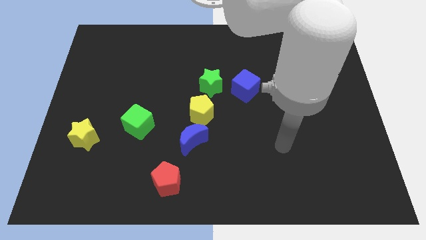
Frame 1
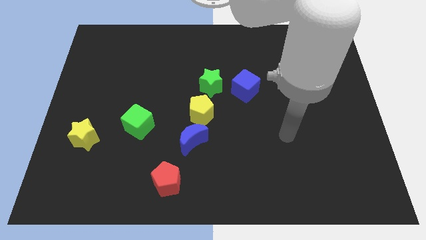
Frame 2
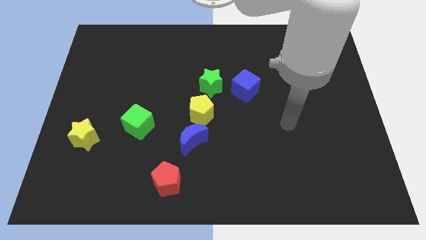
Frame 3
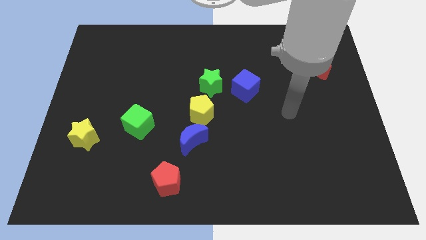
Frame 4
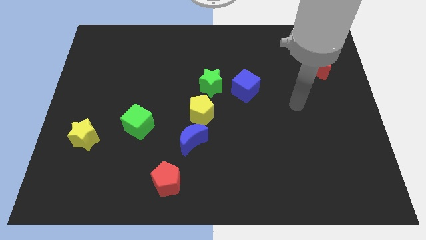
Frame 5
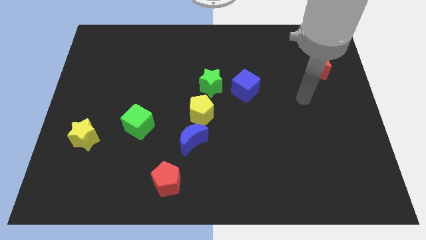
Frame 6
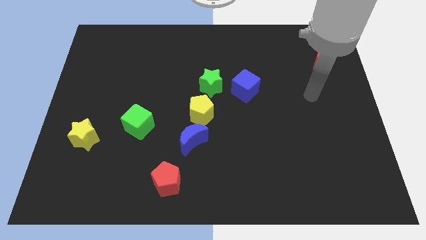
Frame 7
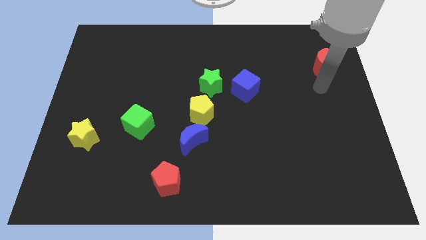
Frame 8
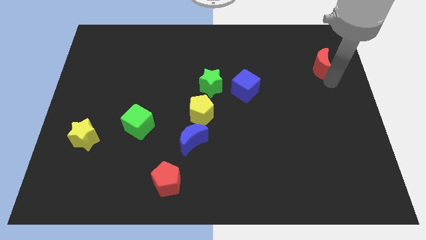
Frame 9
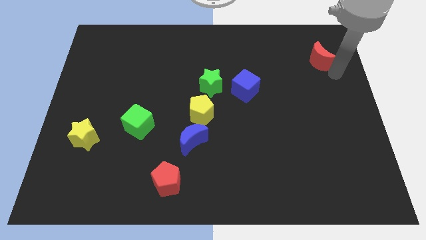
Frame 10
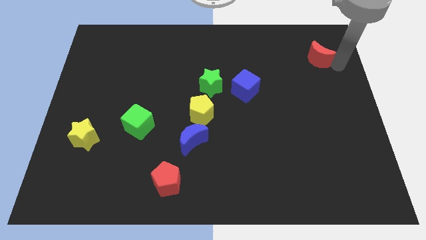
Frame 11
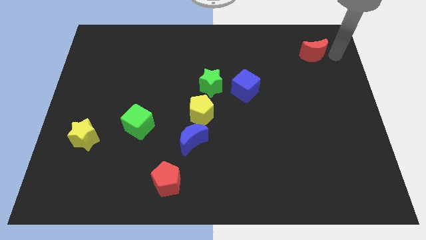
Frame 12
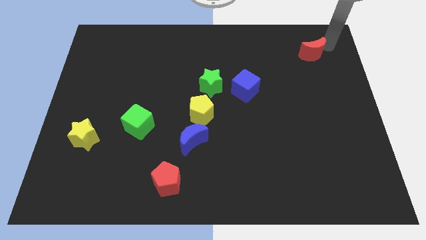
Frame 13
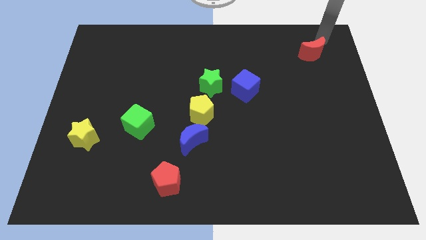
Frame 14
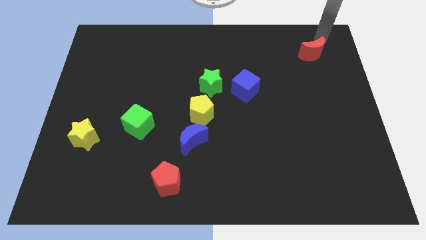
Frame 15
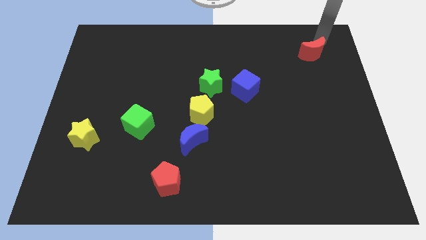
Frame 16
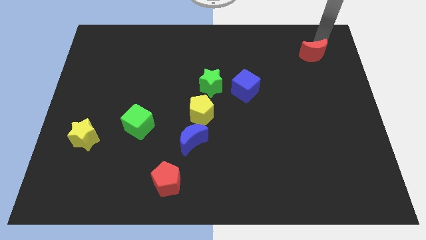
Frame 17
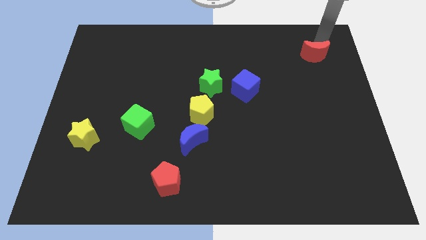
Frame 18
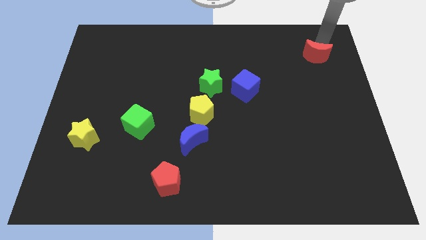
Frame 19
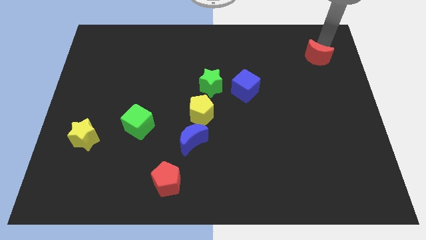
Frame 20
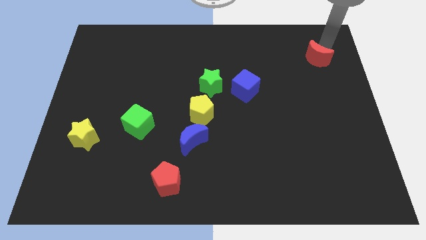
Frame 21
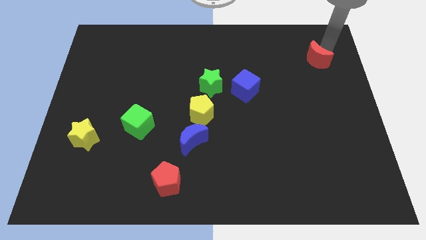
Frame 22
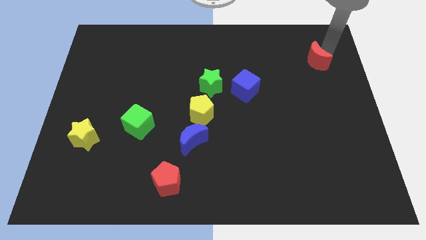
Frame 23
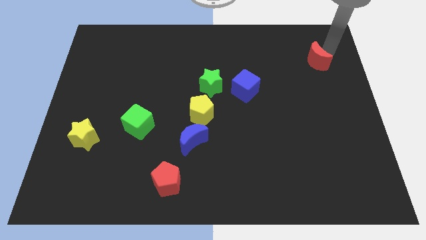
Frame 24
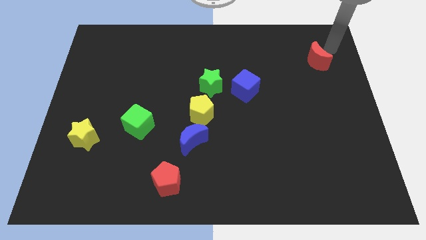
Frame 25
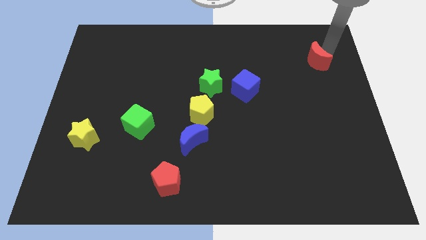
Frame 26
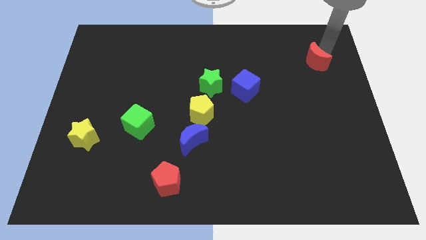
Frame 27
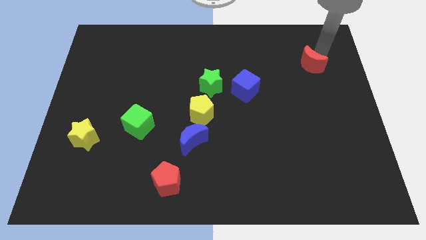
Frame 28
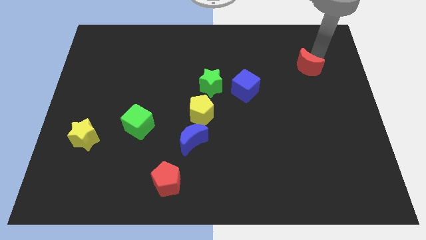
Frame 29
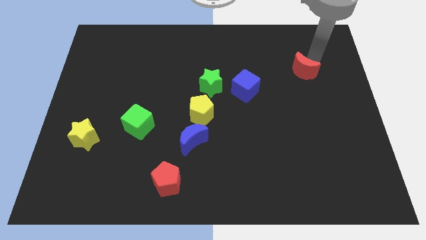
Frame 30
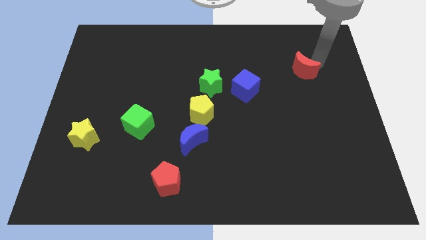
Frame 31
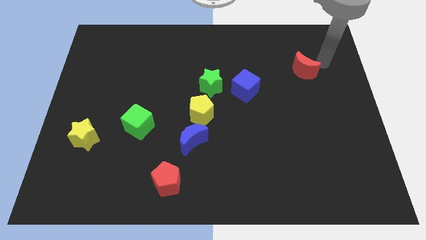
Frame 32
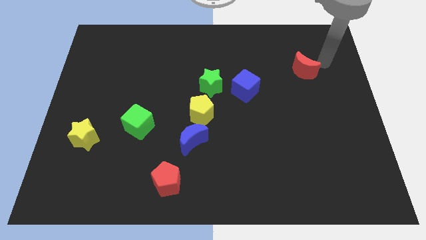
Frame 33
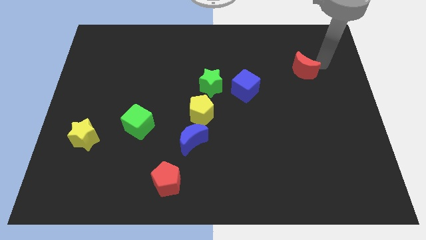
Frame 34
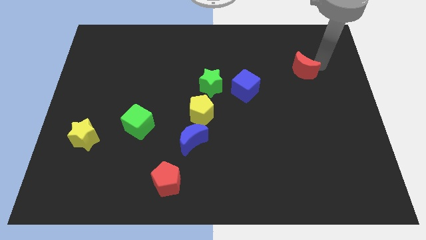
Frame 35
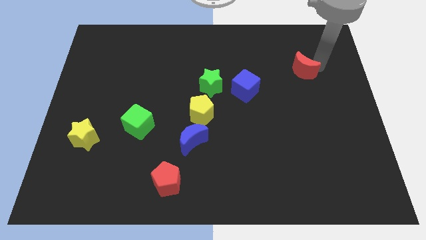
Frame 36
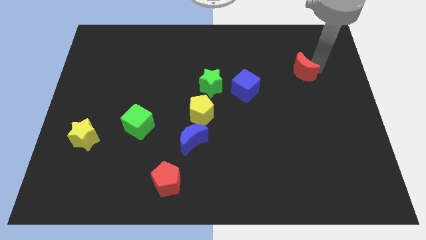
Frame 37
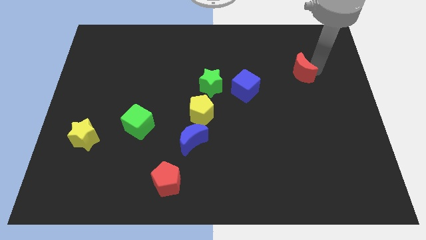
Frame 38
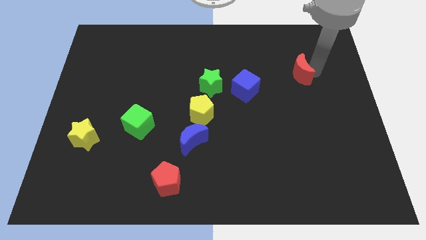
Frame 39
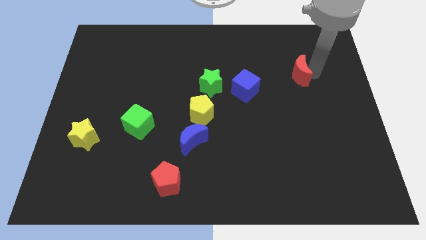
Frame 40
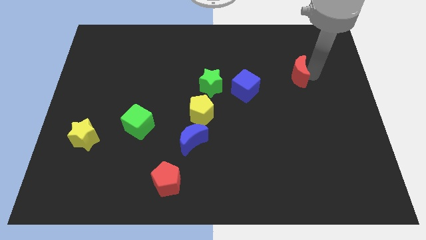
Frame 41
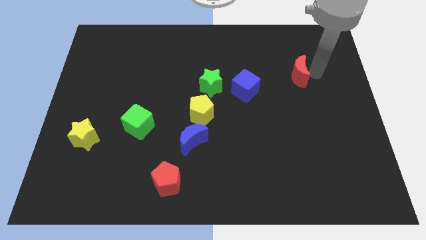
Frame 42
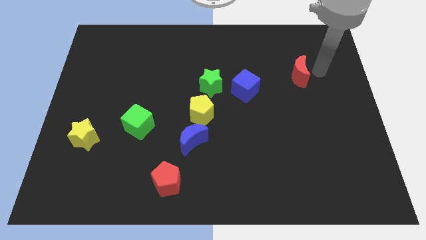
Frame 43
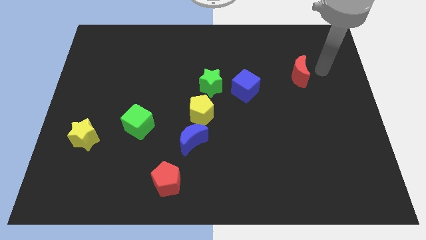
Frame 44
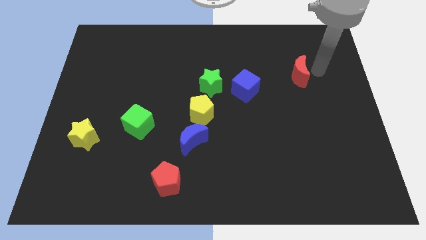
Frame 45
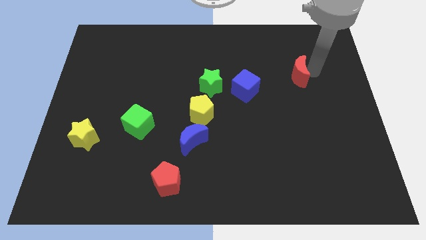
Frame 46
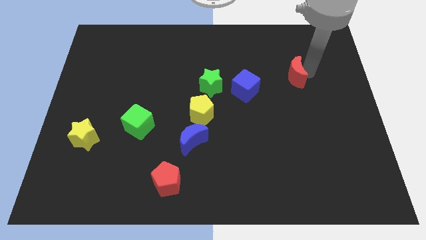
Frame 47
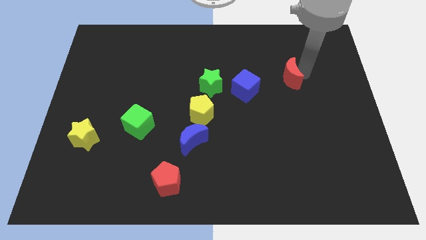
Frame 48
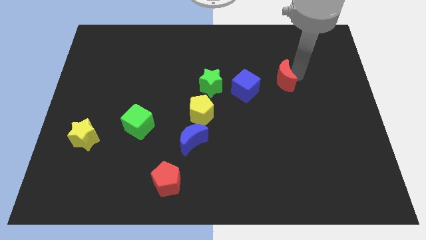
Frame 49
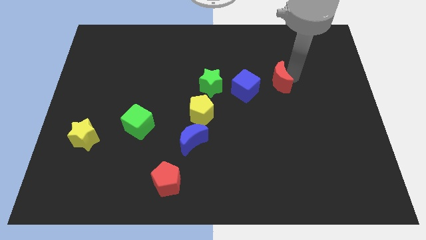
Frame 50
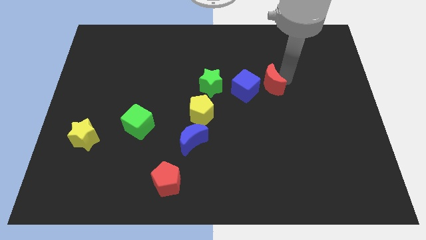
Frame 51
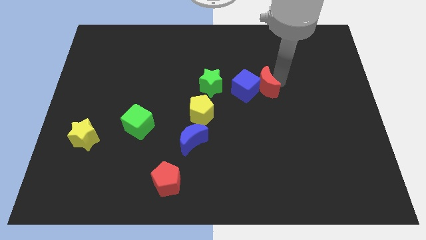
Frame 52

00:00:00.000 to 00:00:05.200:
push the red moon towards the blue cube

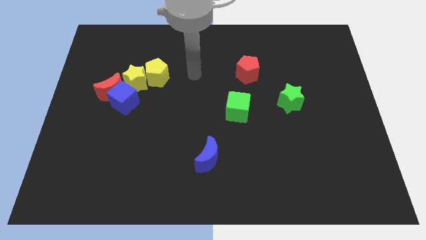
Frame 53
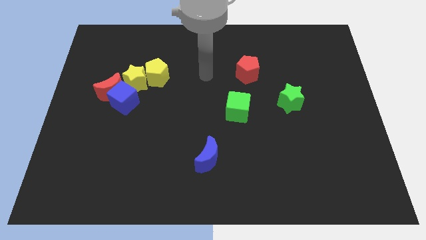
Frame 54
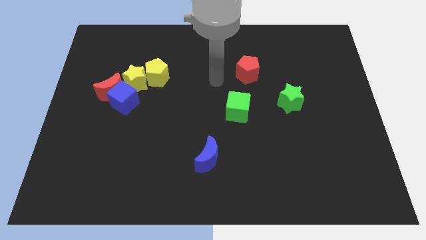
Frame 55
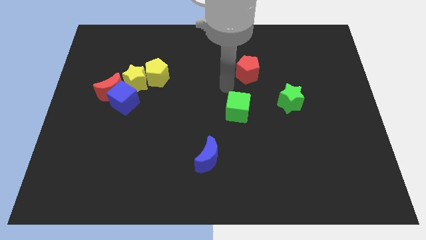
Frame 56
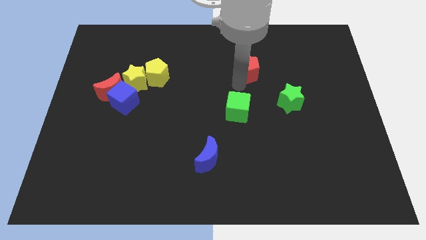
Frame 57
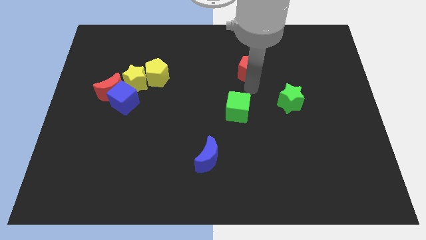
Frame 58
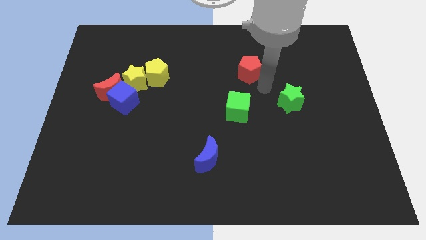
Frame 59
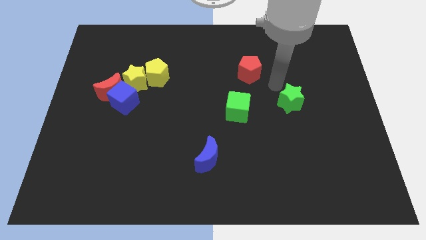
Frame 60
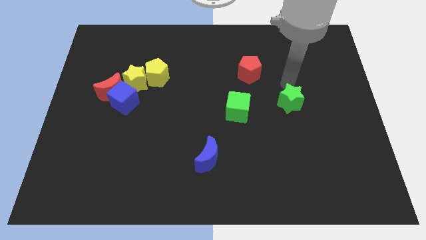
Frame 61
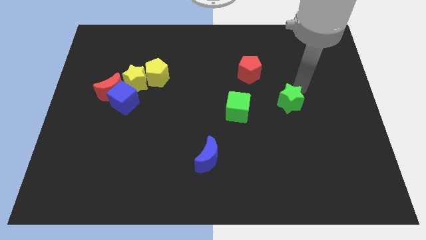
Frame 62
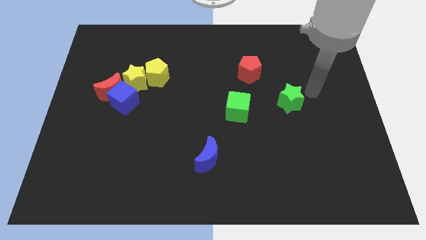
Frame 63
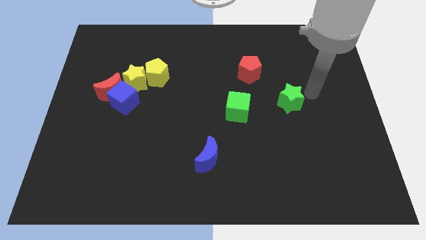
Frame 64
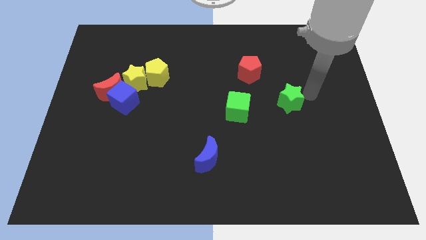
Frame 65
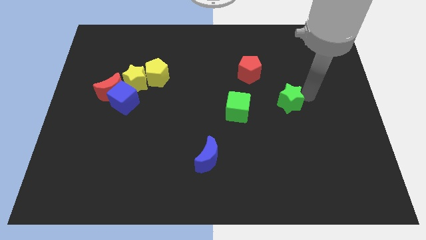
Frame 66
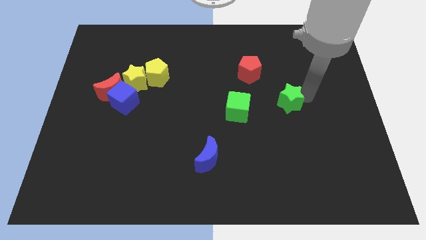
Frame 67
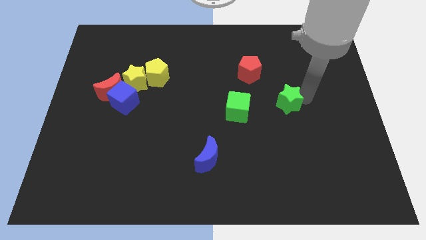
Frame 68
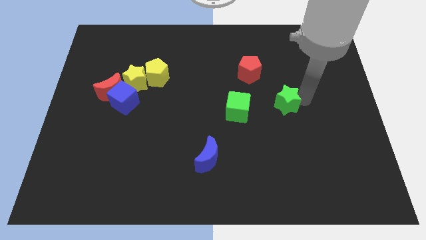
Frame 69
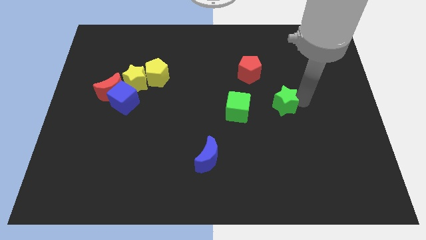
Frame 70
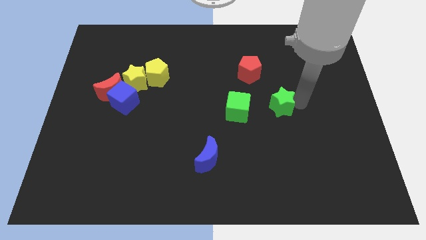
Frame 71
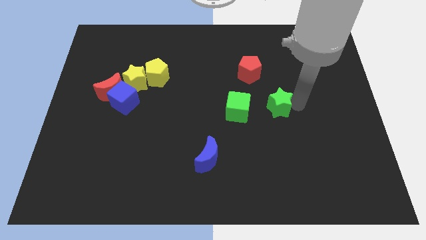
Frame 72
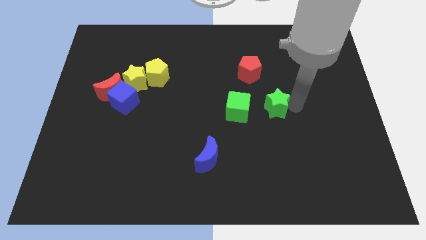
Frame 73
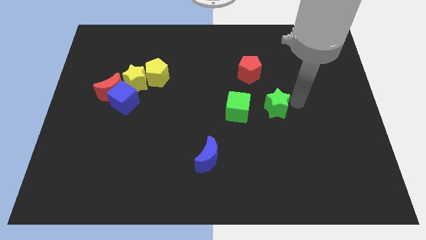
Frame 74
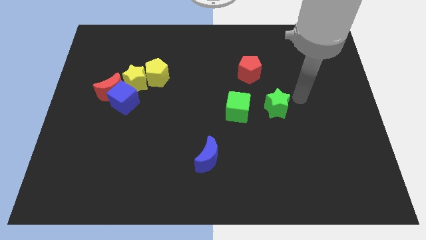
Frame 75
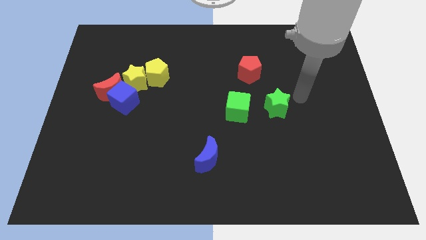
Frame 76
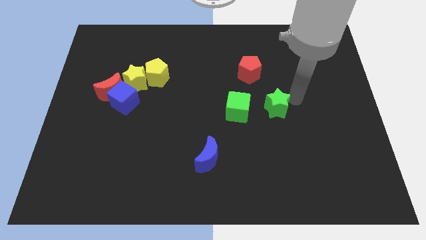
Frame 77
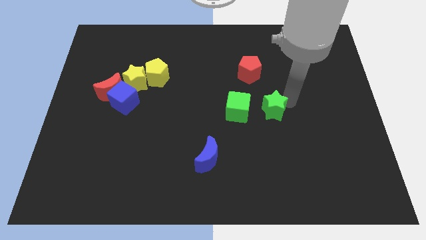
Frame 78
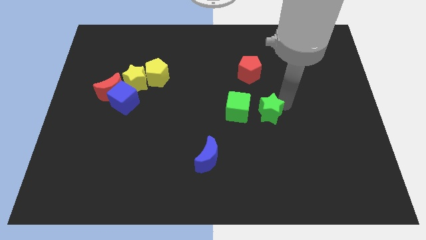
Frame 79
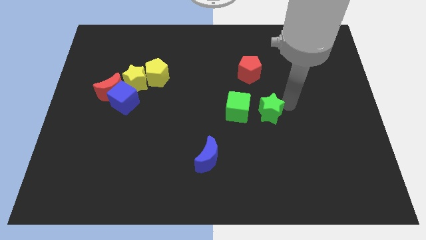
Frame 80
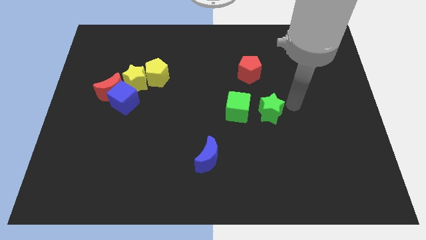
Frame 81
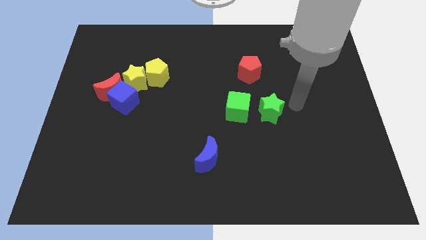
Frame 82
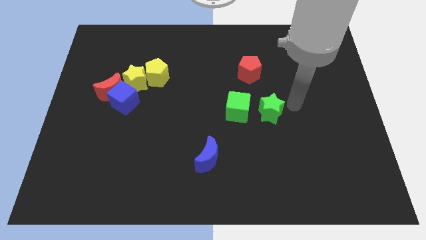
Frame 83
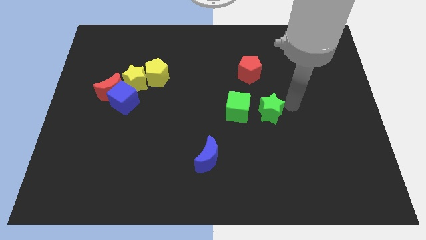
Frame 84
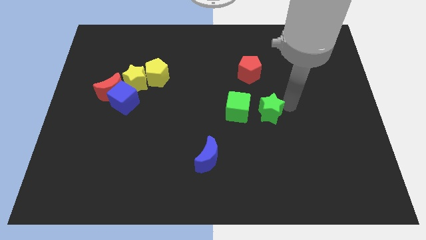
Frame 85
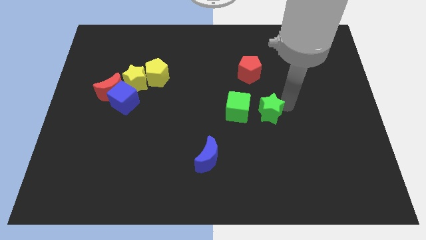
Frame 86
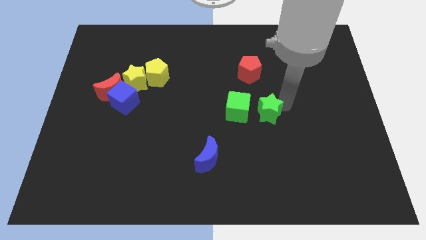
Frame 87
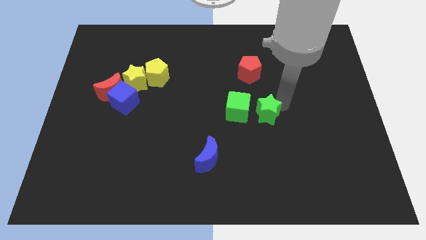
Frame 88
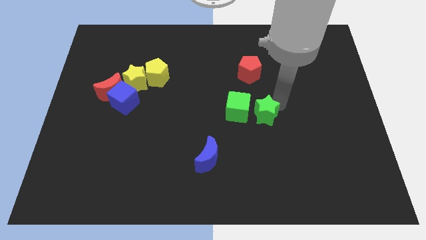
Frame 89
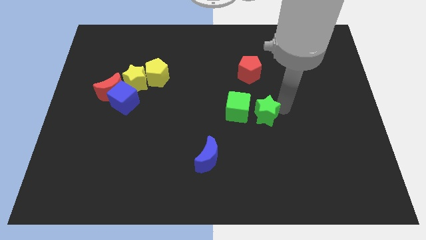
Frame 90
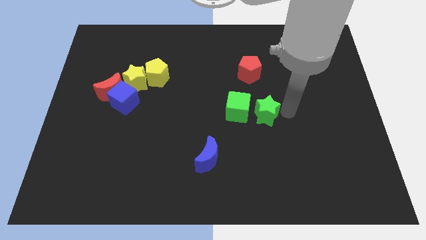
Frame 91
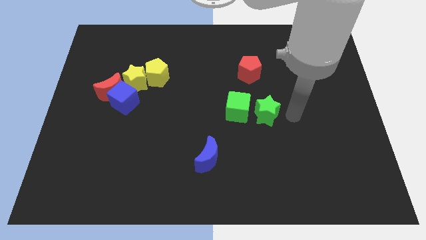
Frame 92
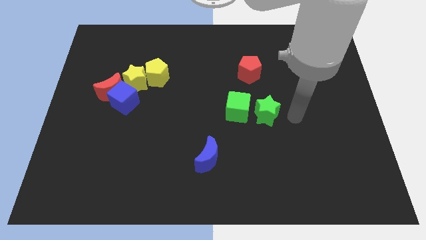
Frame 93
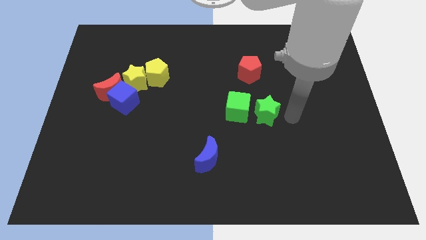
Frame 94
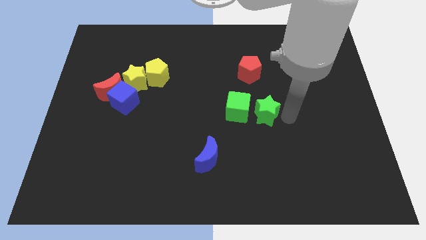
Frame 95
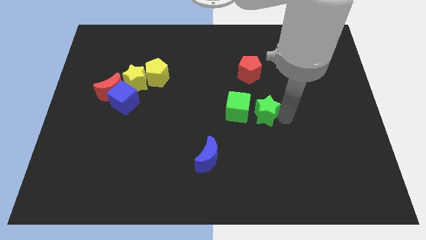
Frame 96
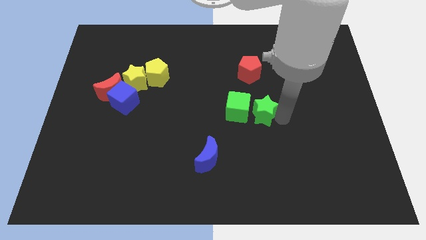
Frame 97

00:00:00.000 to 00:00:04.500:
push the green star towards the green cube
